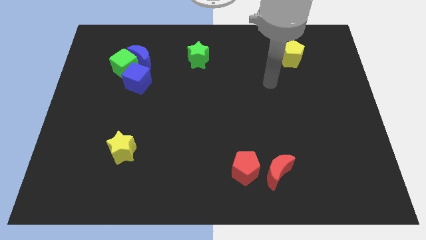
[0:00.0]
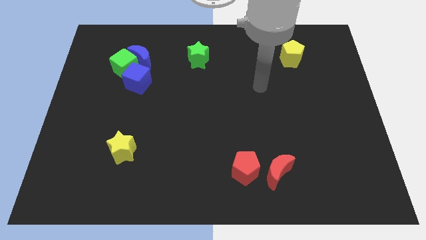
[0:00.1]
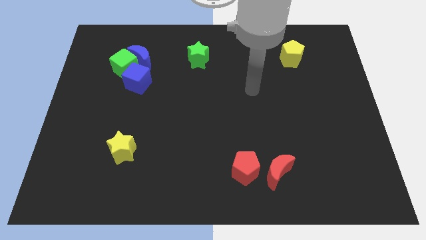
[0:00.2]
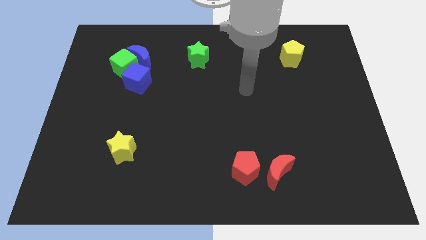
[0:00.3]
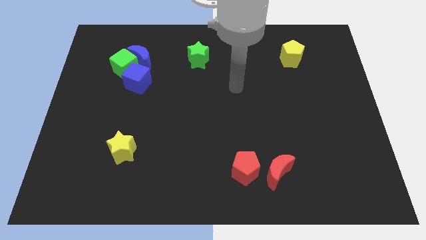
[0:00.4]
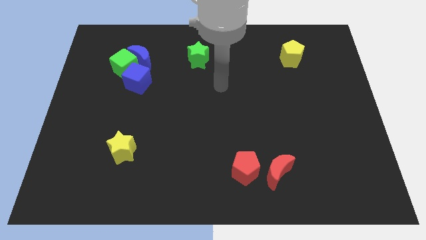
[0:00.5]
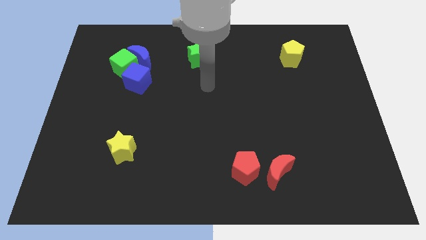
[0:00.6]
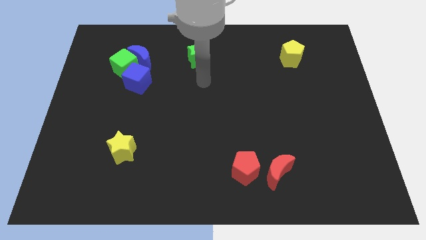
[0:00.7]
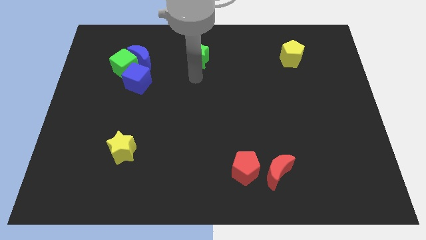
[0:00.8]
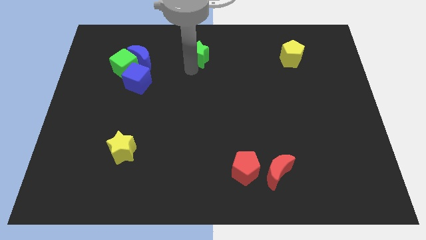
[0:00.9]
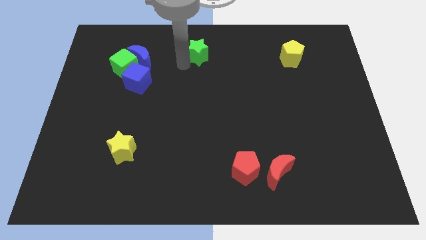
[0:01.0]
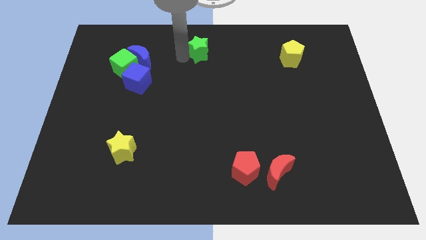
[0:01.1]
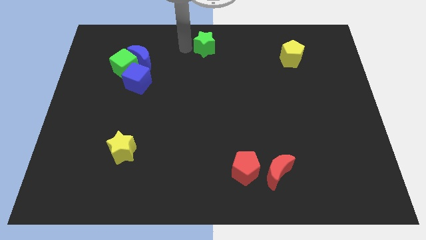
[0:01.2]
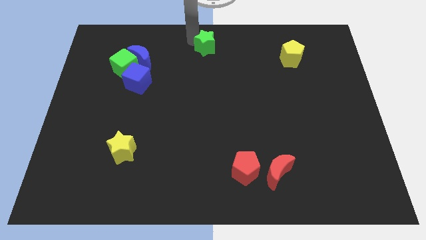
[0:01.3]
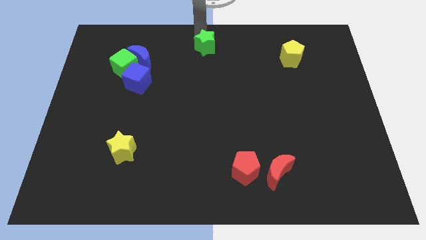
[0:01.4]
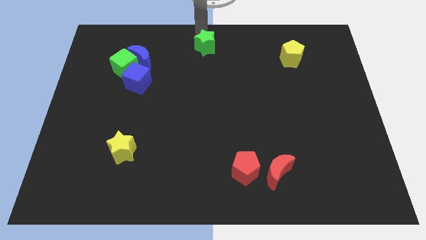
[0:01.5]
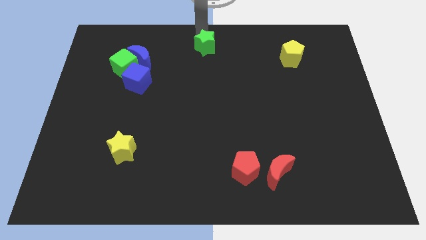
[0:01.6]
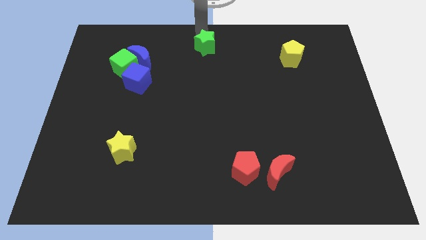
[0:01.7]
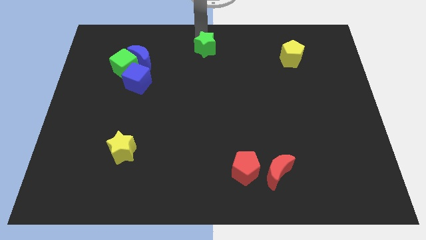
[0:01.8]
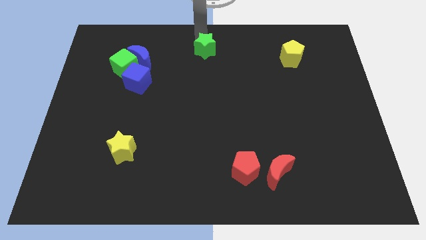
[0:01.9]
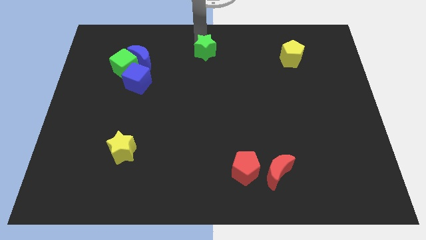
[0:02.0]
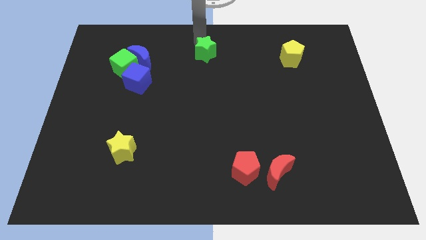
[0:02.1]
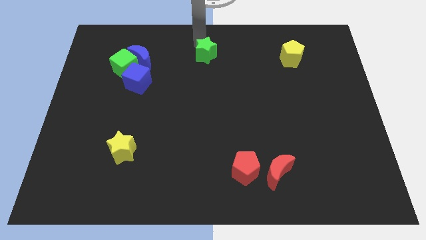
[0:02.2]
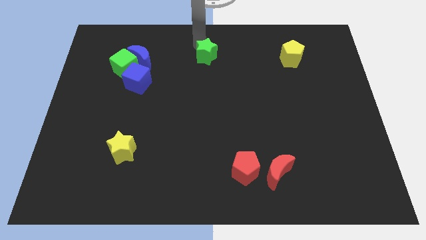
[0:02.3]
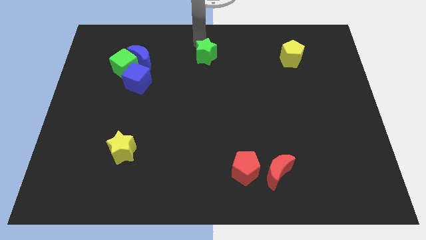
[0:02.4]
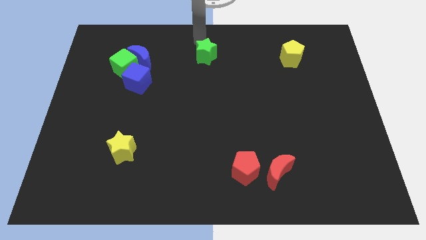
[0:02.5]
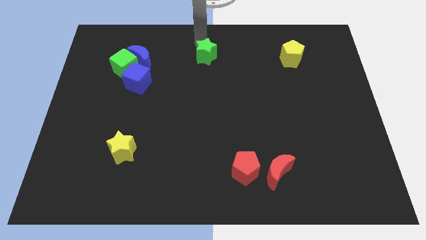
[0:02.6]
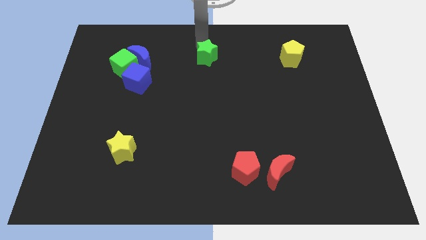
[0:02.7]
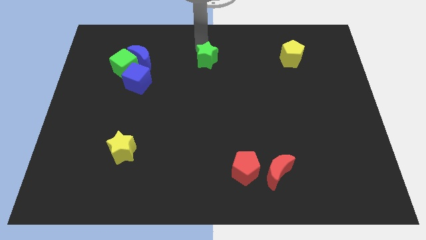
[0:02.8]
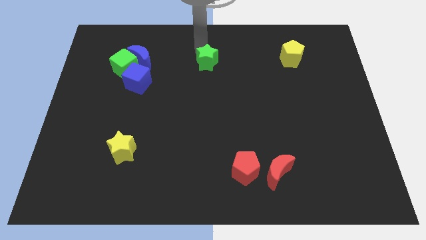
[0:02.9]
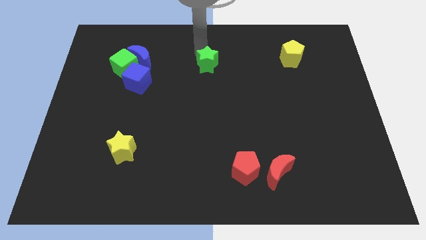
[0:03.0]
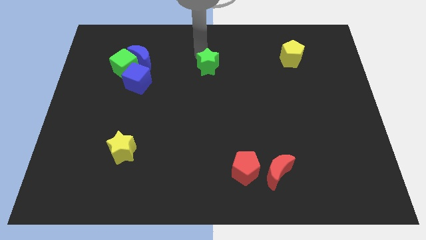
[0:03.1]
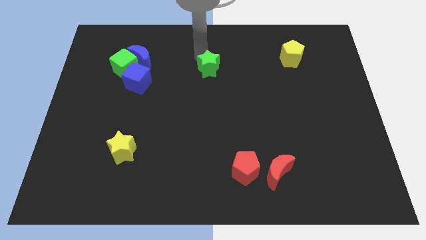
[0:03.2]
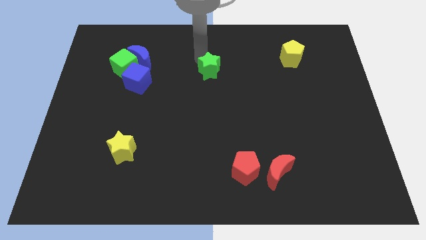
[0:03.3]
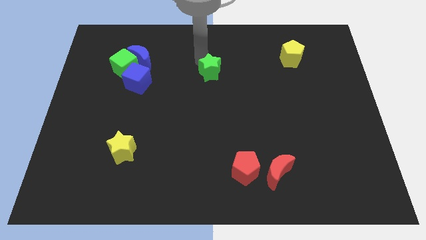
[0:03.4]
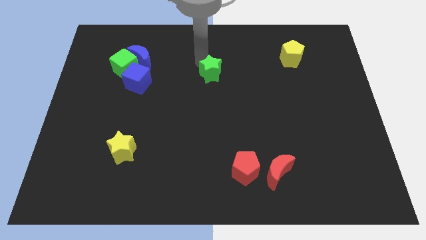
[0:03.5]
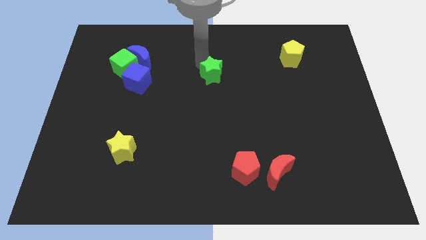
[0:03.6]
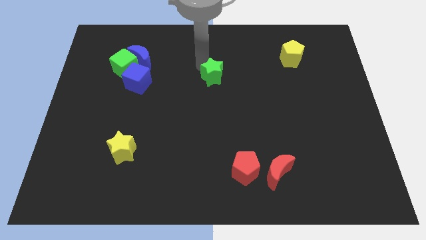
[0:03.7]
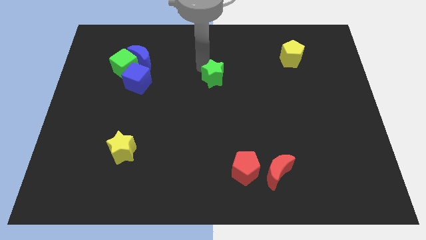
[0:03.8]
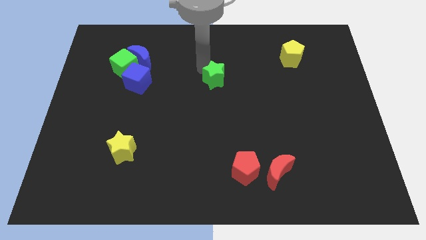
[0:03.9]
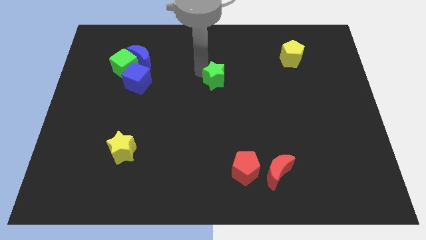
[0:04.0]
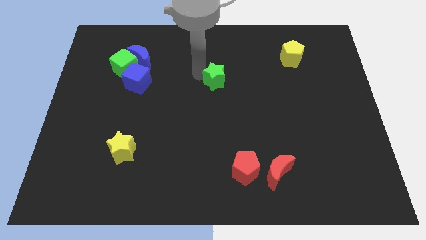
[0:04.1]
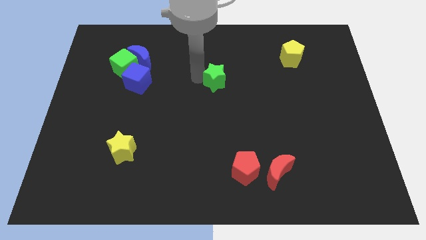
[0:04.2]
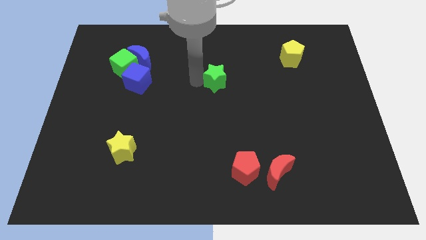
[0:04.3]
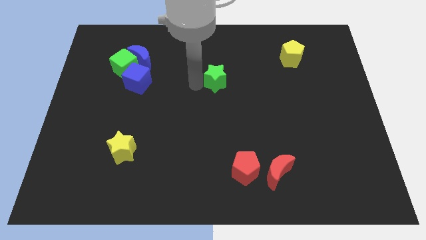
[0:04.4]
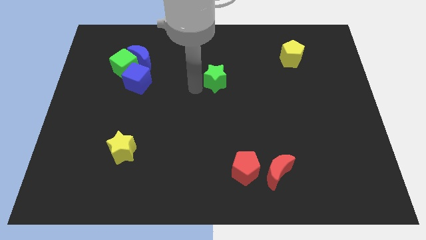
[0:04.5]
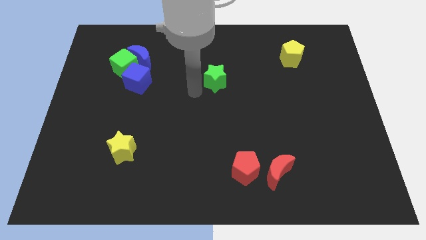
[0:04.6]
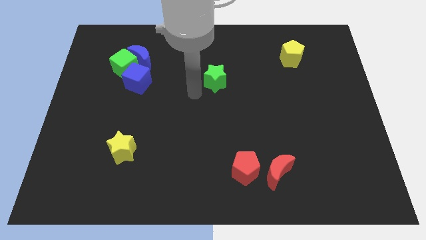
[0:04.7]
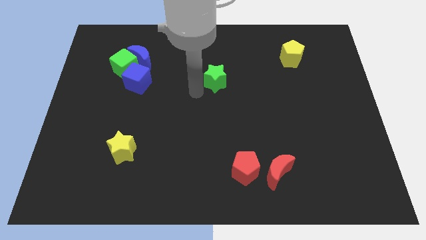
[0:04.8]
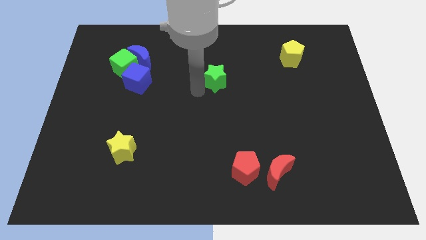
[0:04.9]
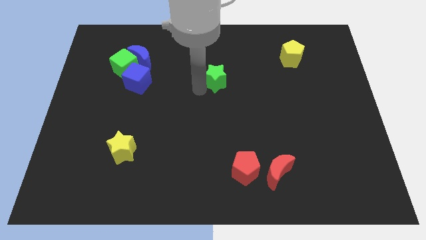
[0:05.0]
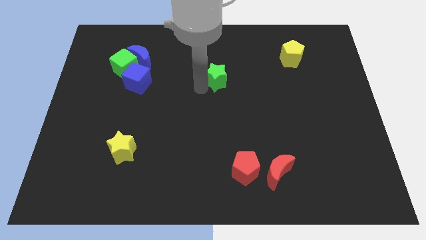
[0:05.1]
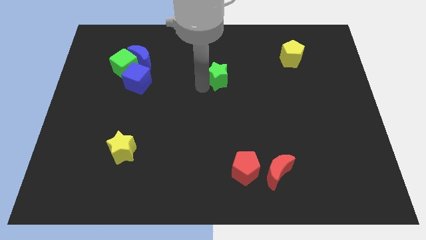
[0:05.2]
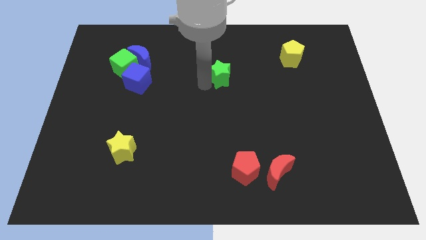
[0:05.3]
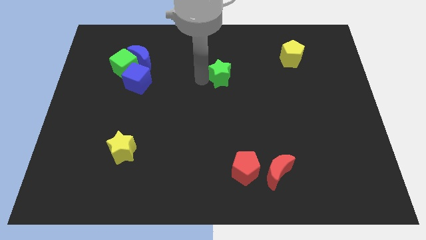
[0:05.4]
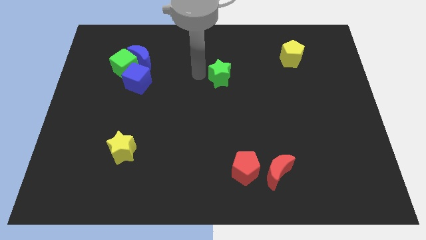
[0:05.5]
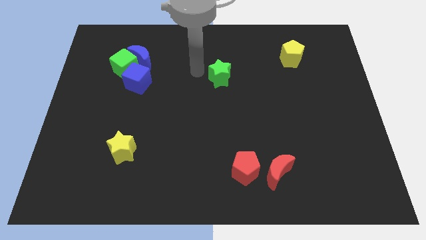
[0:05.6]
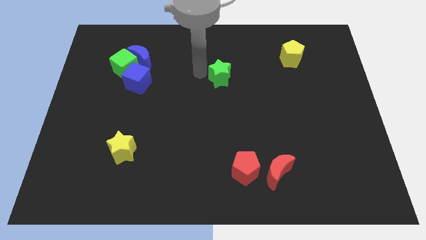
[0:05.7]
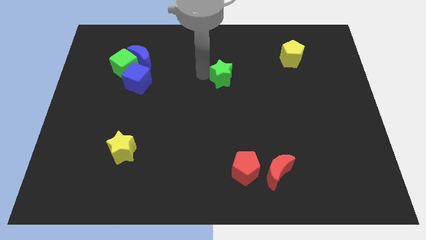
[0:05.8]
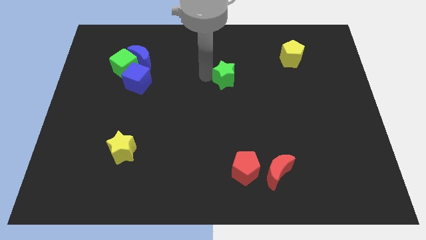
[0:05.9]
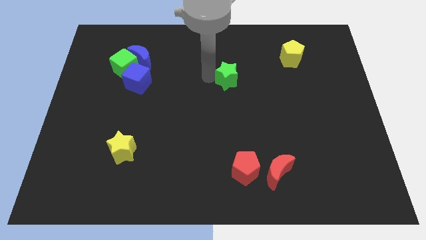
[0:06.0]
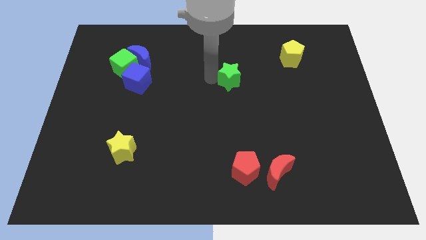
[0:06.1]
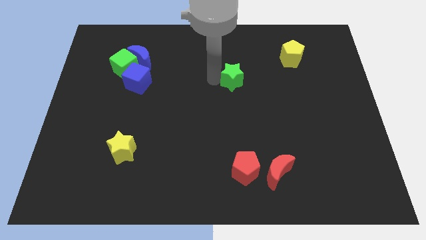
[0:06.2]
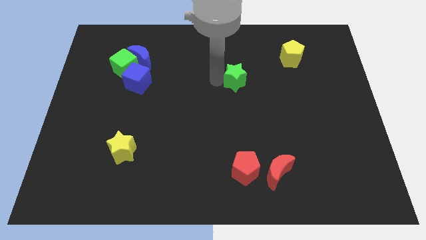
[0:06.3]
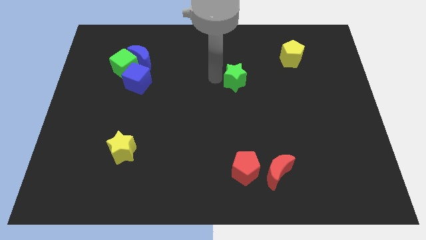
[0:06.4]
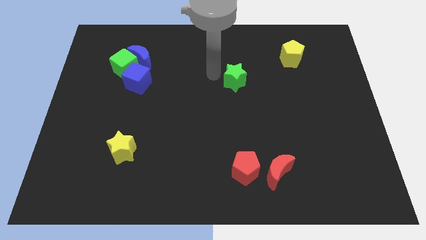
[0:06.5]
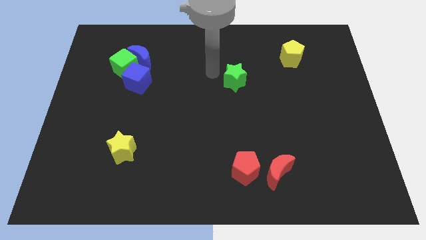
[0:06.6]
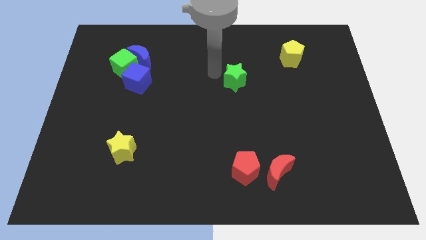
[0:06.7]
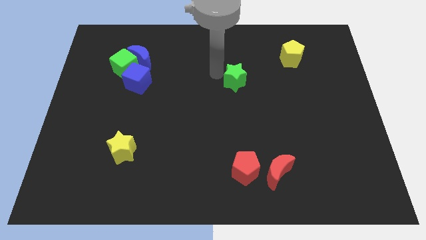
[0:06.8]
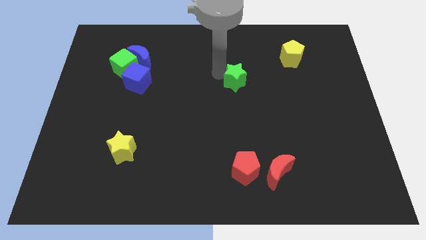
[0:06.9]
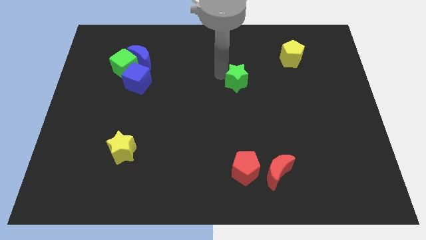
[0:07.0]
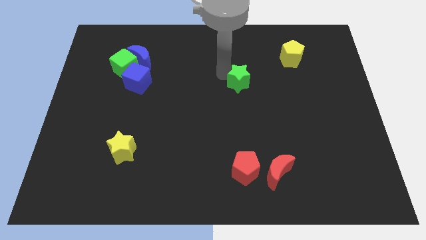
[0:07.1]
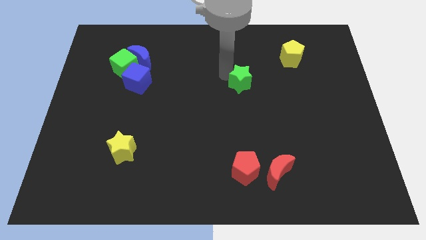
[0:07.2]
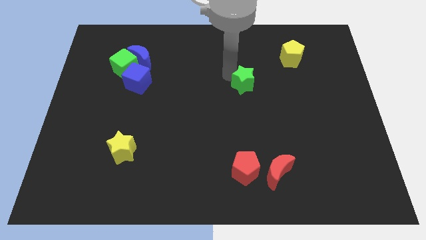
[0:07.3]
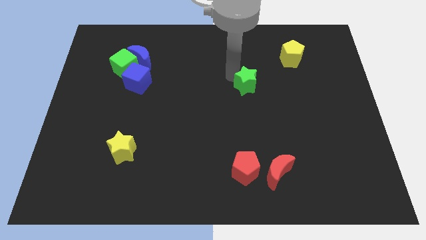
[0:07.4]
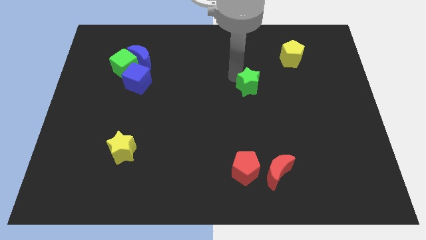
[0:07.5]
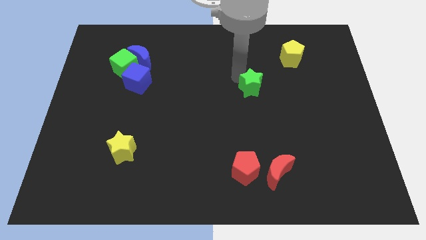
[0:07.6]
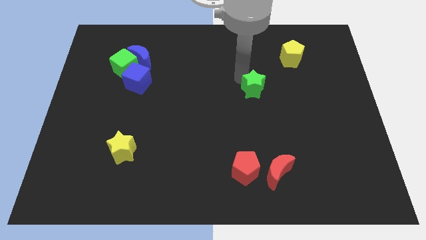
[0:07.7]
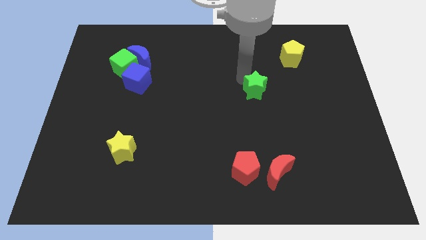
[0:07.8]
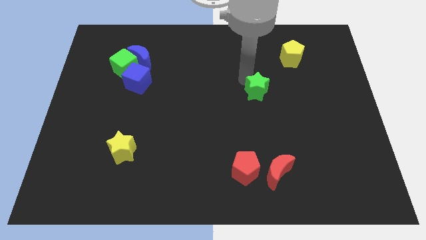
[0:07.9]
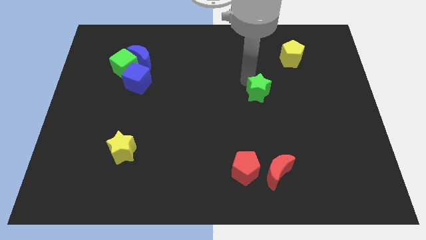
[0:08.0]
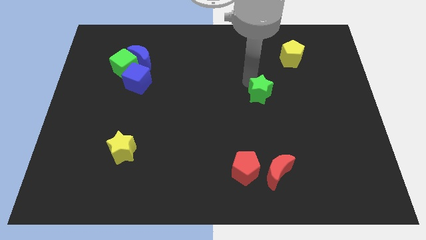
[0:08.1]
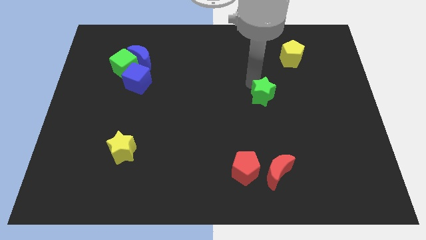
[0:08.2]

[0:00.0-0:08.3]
push the green star diagonally downwards and to the right
